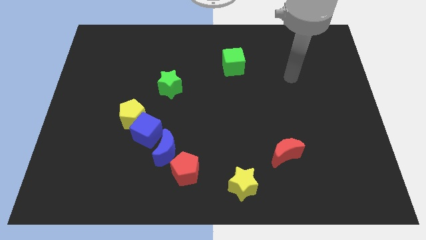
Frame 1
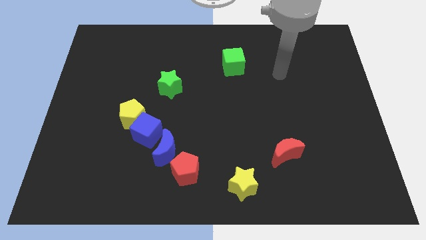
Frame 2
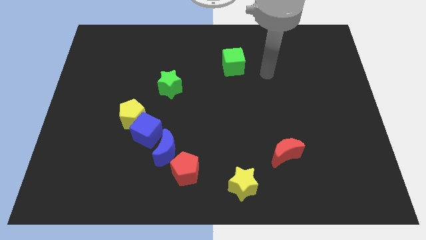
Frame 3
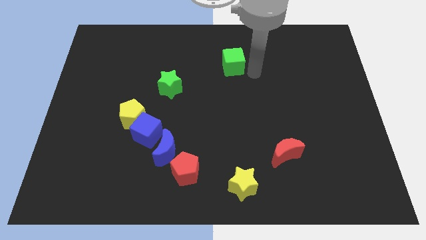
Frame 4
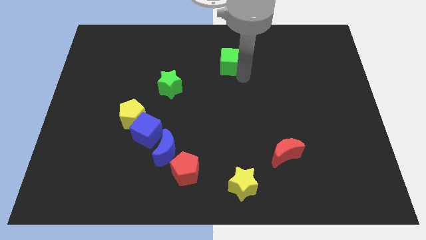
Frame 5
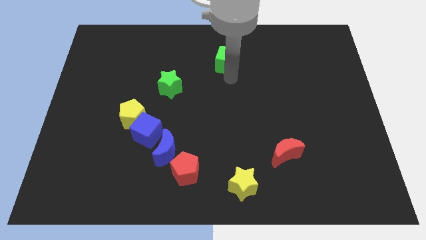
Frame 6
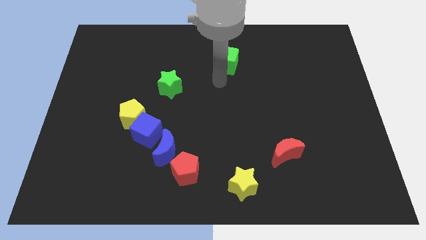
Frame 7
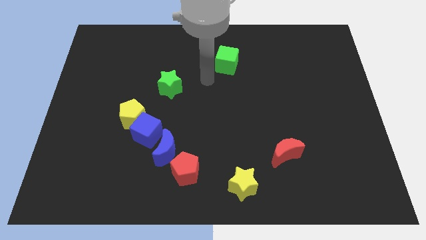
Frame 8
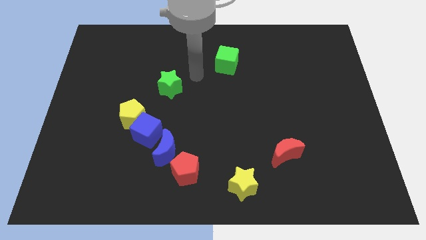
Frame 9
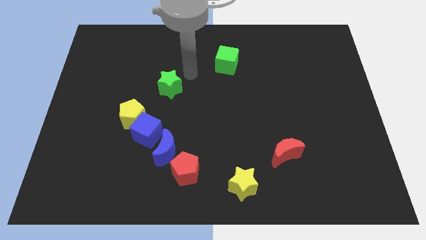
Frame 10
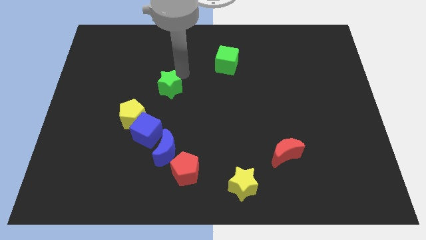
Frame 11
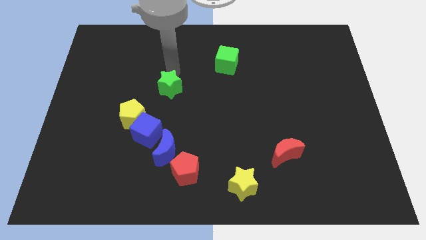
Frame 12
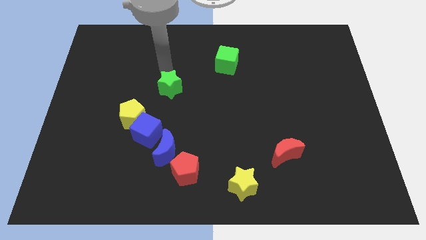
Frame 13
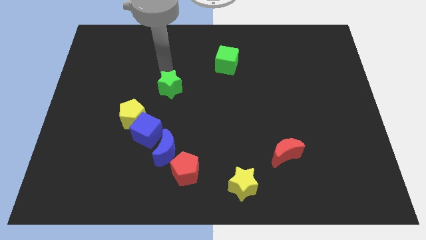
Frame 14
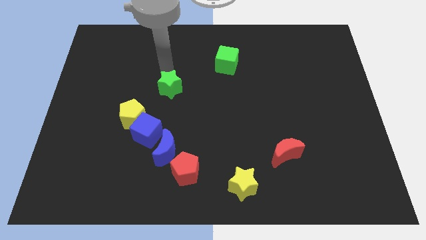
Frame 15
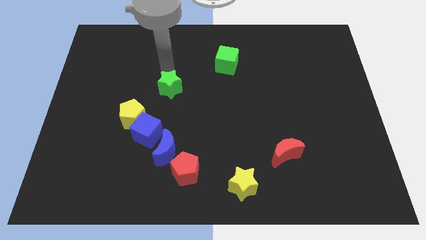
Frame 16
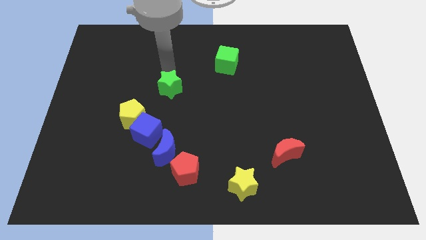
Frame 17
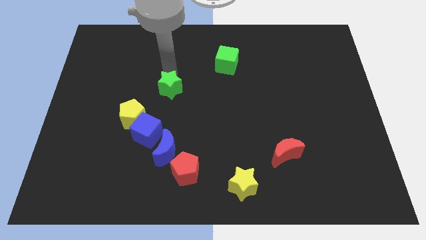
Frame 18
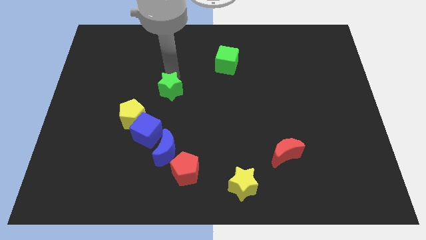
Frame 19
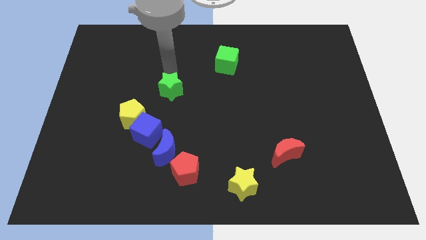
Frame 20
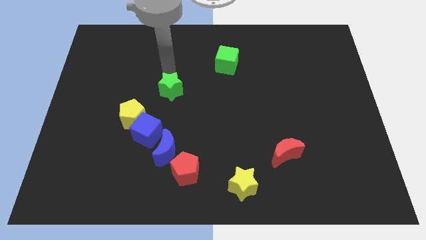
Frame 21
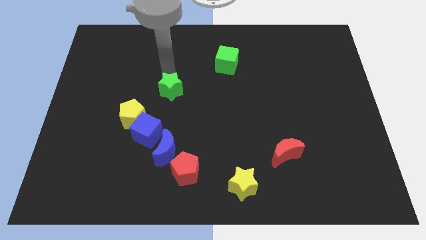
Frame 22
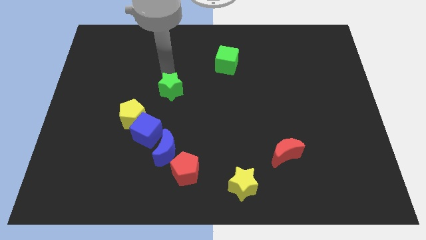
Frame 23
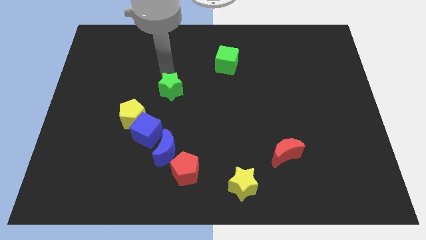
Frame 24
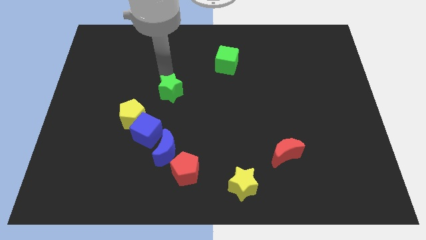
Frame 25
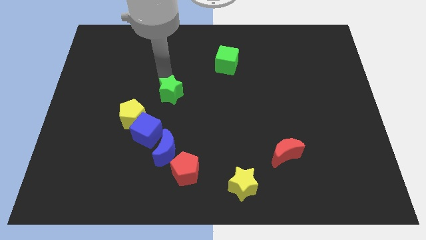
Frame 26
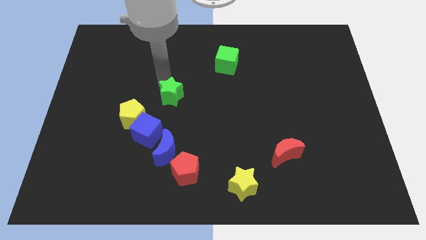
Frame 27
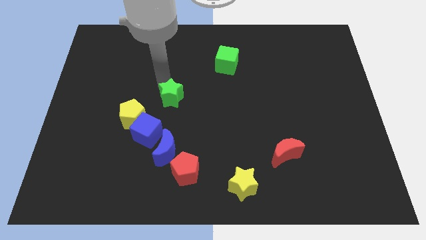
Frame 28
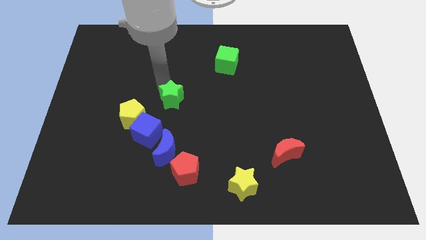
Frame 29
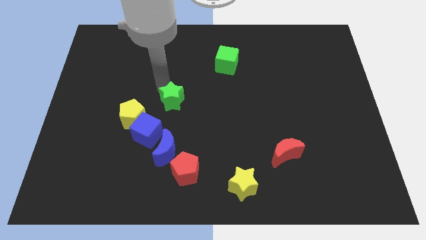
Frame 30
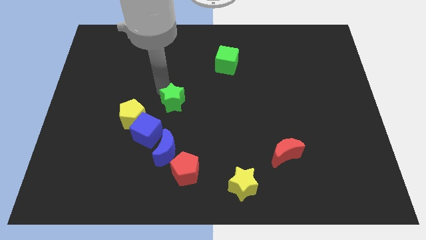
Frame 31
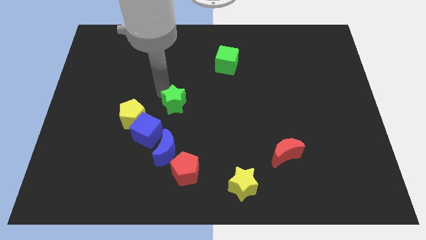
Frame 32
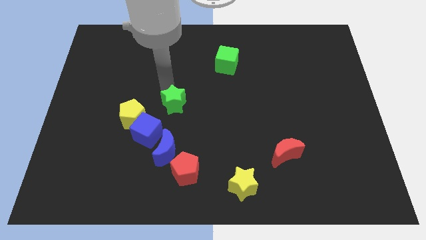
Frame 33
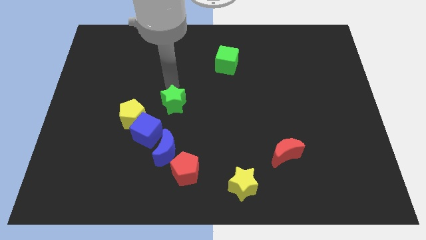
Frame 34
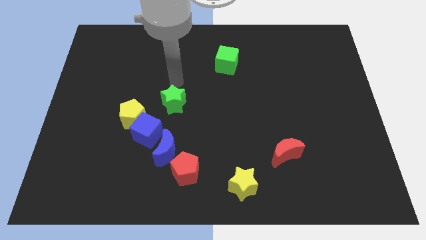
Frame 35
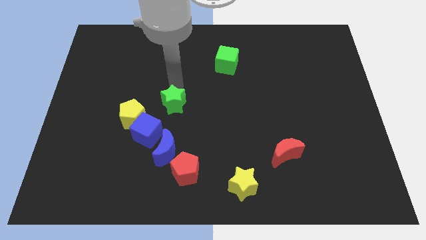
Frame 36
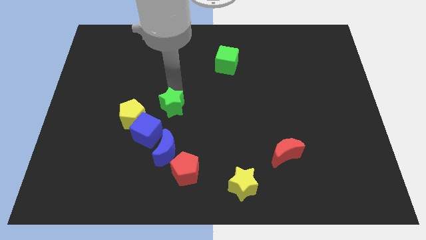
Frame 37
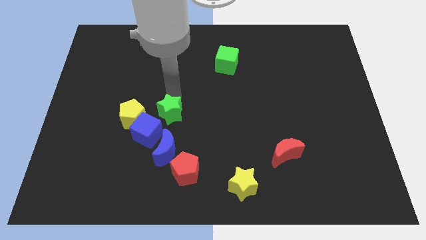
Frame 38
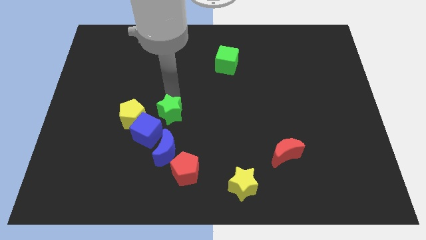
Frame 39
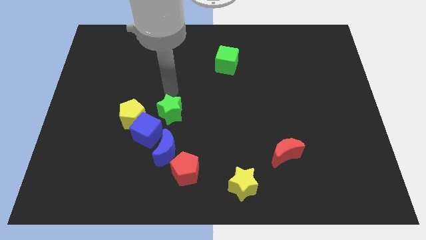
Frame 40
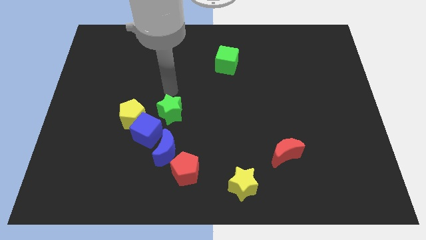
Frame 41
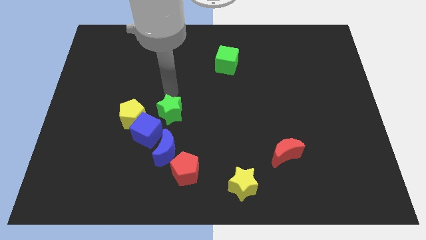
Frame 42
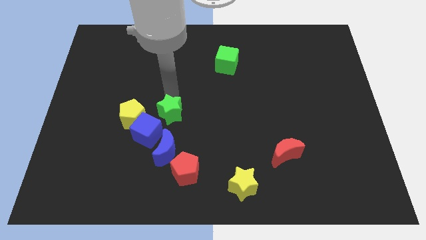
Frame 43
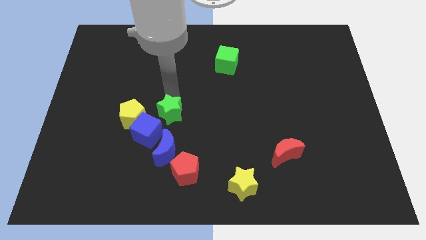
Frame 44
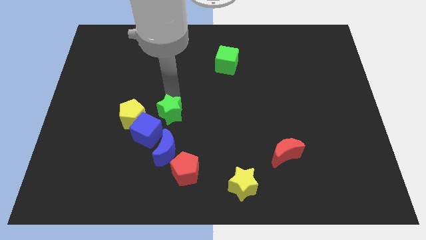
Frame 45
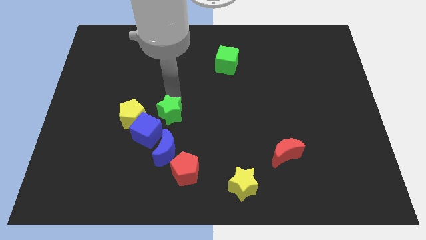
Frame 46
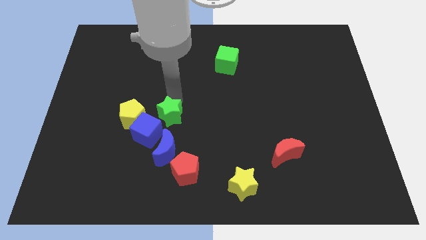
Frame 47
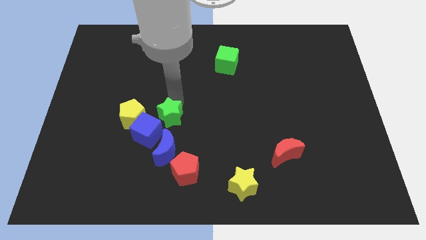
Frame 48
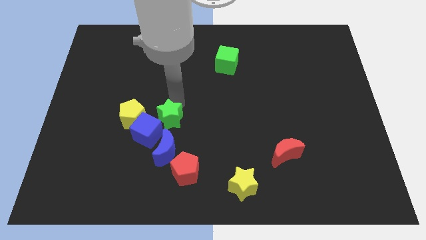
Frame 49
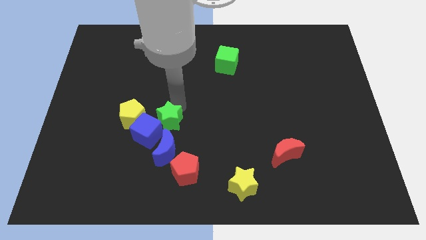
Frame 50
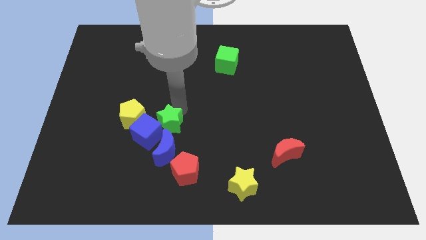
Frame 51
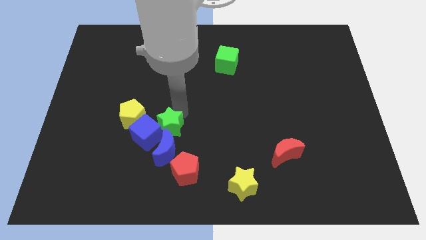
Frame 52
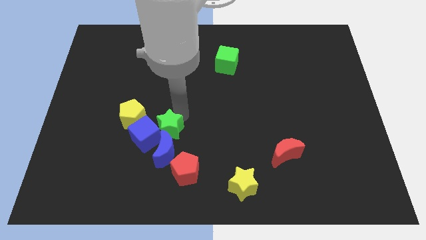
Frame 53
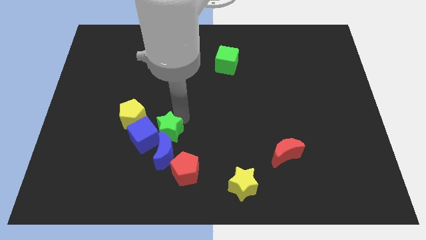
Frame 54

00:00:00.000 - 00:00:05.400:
put the green star close to the blue moon

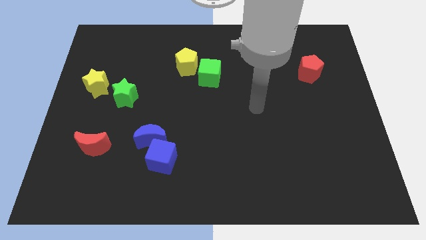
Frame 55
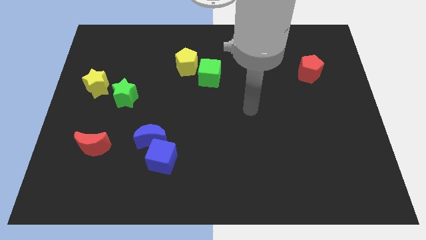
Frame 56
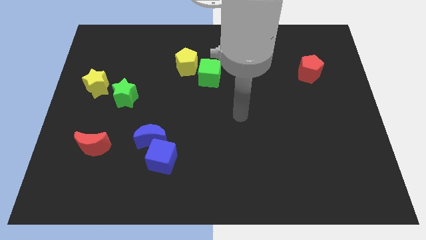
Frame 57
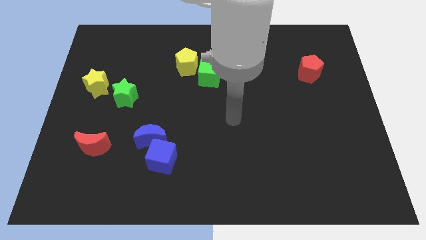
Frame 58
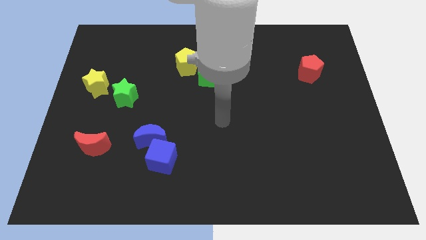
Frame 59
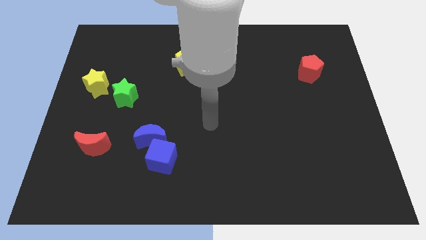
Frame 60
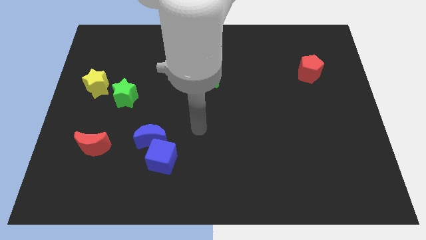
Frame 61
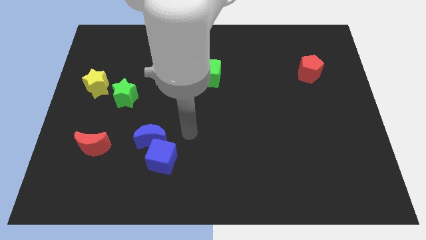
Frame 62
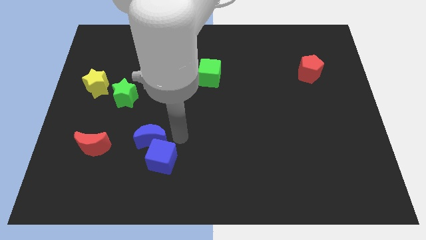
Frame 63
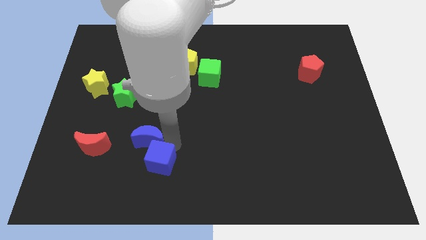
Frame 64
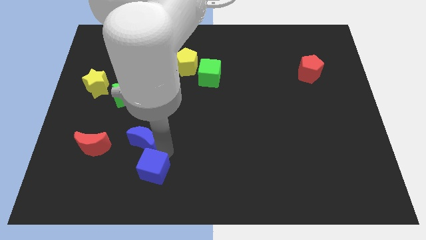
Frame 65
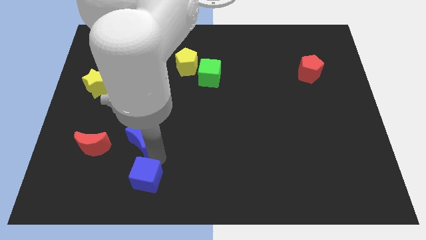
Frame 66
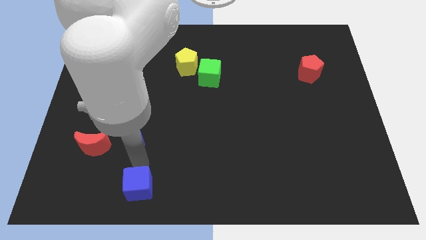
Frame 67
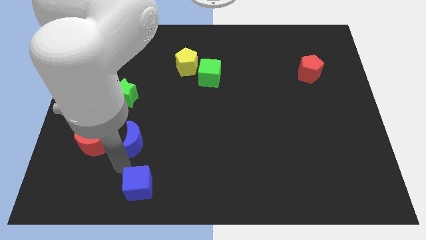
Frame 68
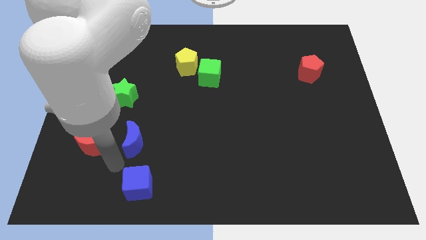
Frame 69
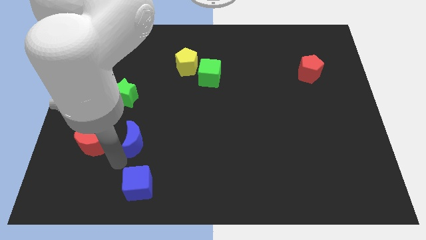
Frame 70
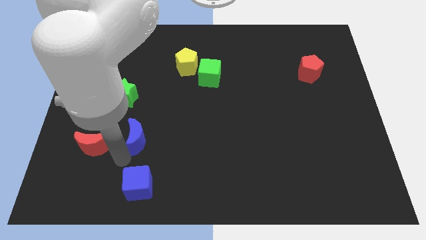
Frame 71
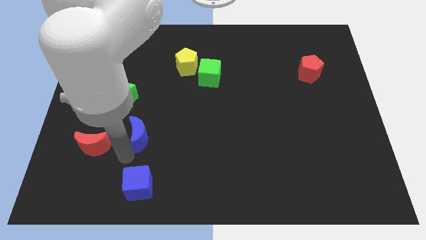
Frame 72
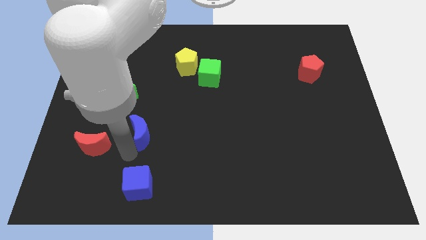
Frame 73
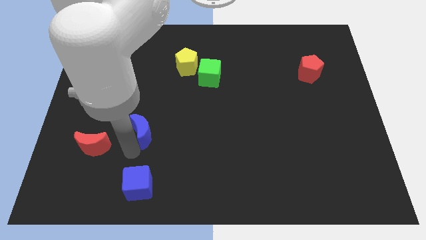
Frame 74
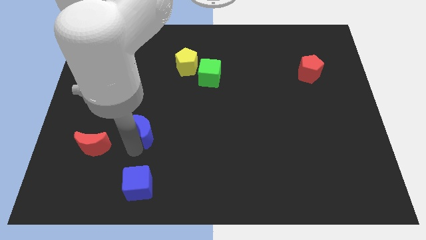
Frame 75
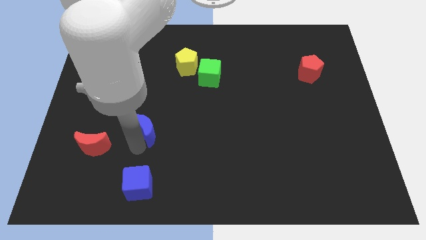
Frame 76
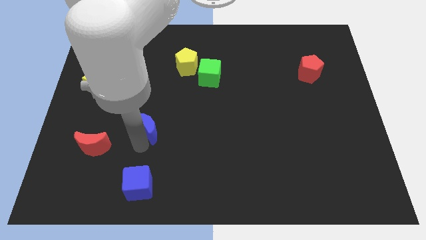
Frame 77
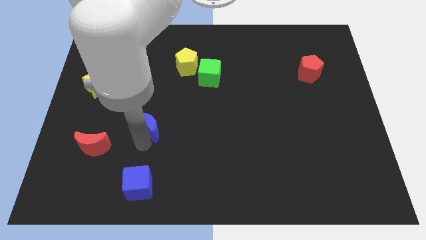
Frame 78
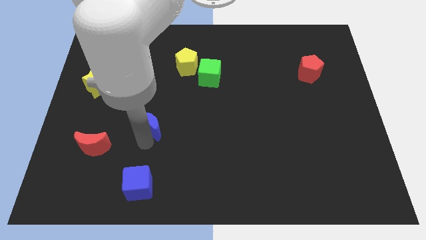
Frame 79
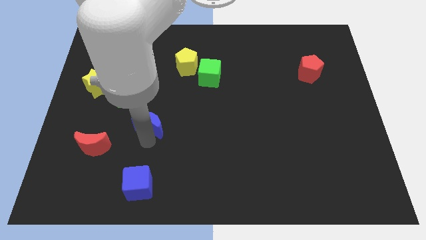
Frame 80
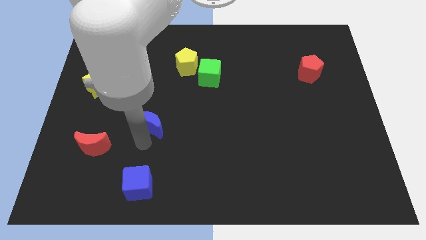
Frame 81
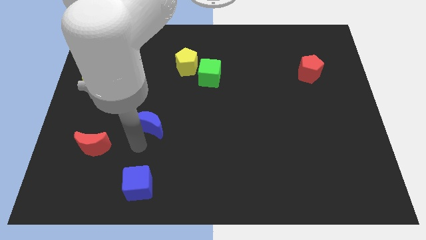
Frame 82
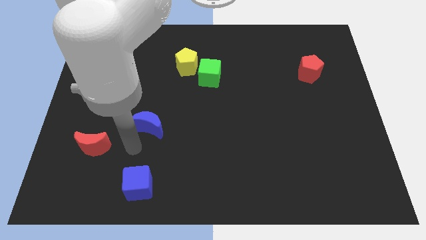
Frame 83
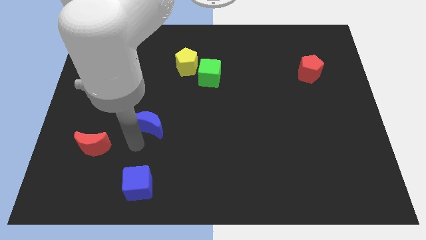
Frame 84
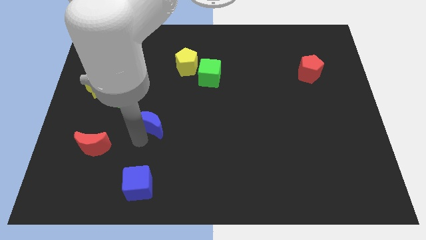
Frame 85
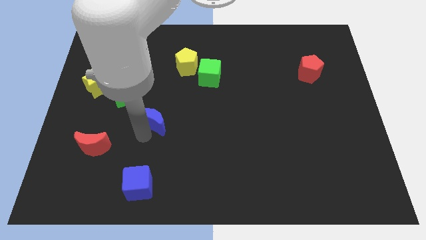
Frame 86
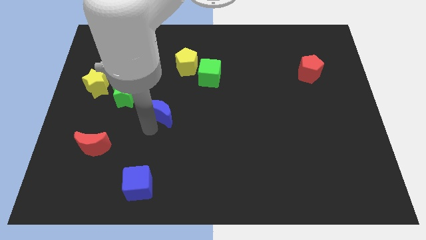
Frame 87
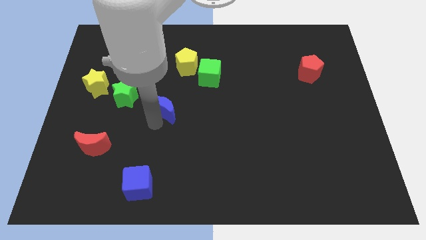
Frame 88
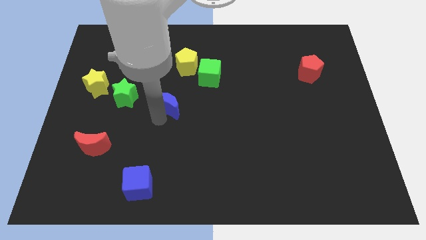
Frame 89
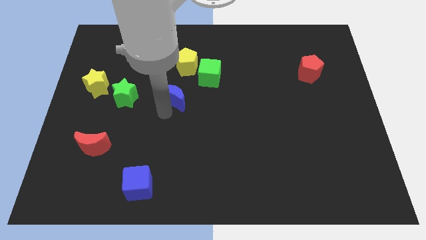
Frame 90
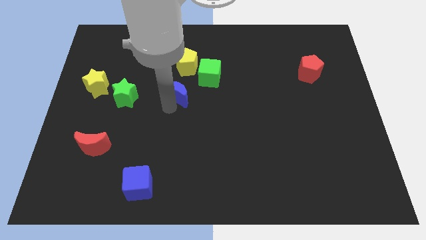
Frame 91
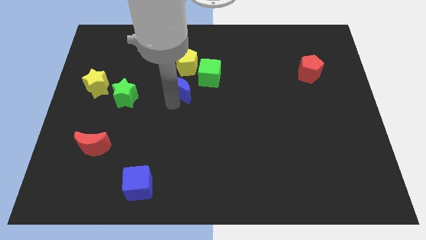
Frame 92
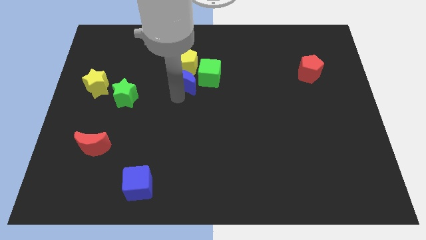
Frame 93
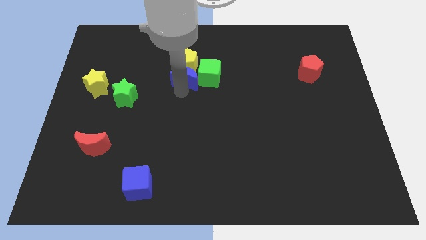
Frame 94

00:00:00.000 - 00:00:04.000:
put the blue moon close to the yellow pentagon
